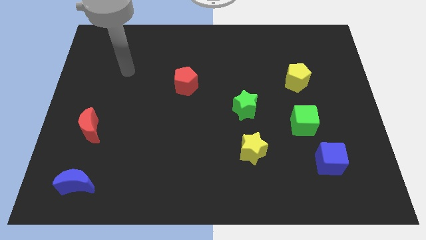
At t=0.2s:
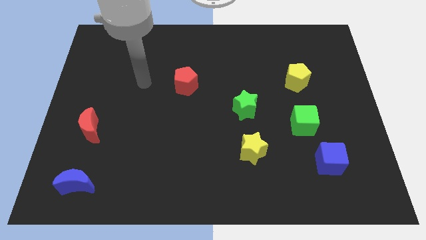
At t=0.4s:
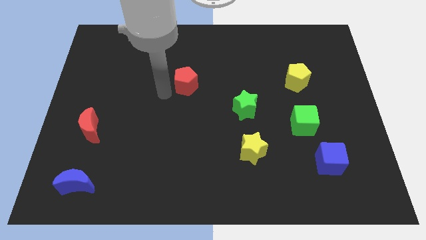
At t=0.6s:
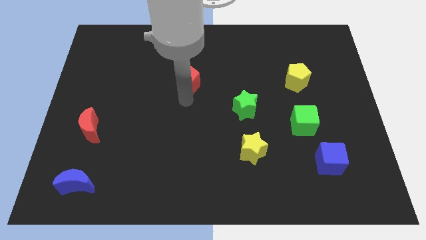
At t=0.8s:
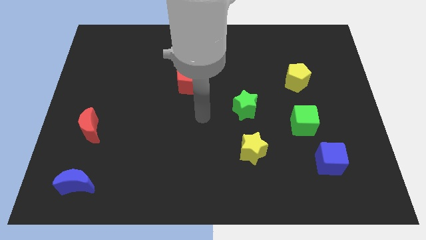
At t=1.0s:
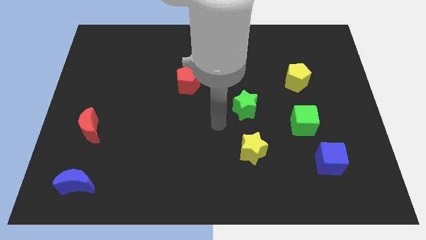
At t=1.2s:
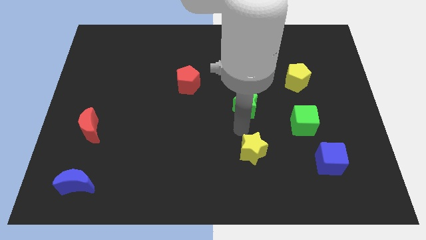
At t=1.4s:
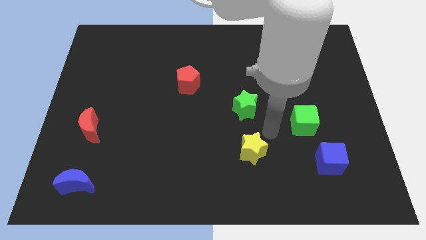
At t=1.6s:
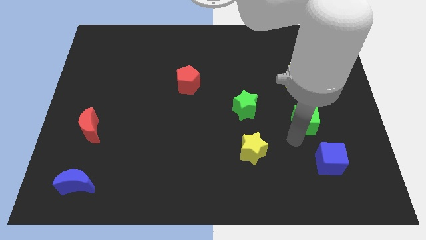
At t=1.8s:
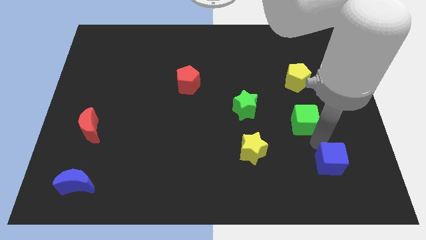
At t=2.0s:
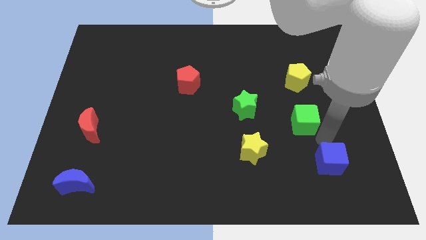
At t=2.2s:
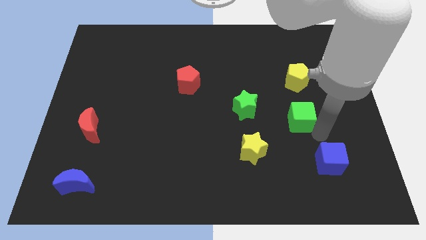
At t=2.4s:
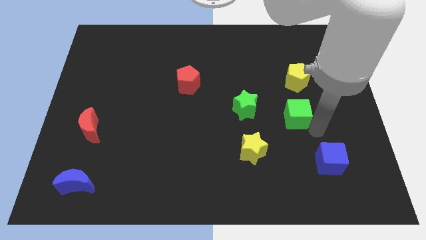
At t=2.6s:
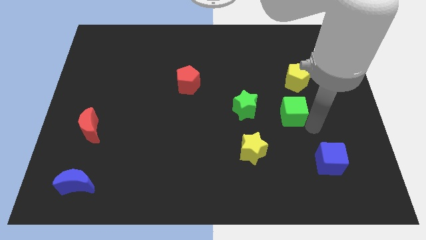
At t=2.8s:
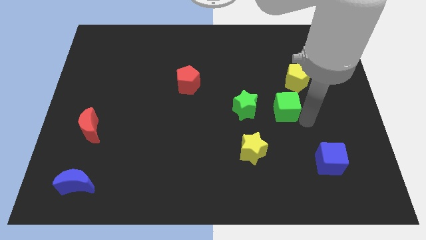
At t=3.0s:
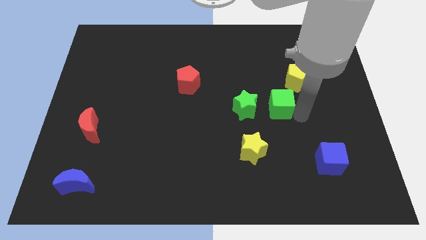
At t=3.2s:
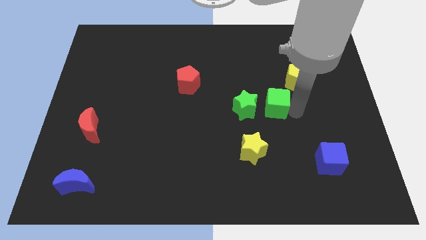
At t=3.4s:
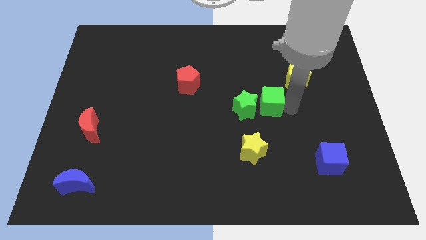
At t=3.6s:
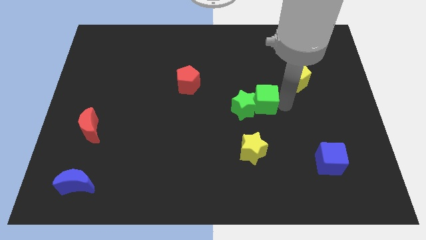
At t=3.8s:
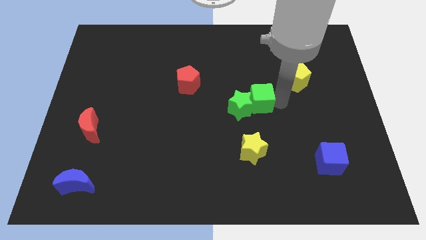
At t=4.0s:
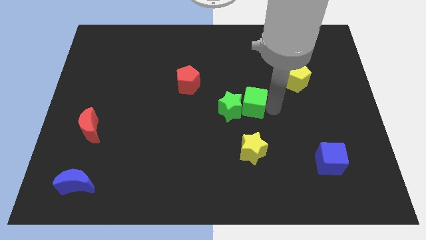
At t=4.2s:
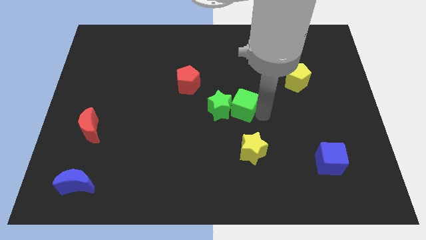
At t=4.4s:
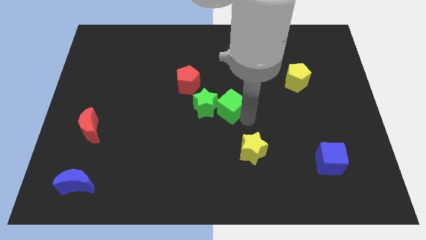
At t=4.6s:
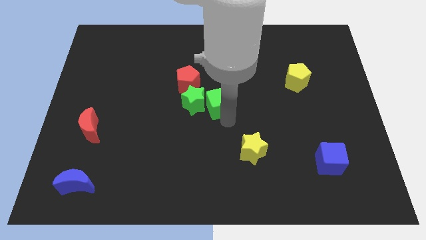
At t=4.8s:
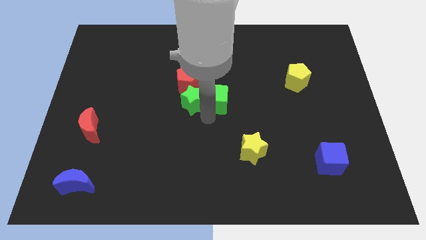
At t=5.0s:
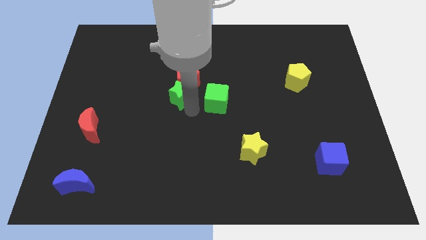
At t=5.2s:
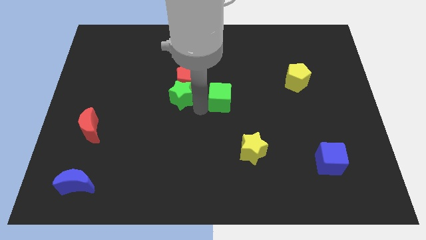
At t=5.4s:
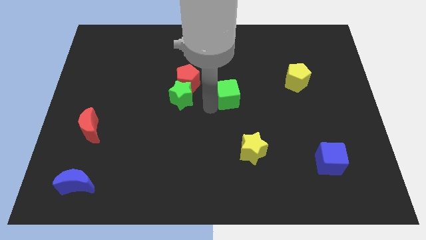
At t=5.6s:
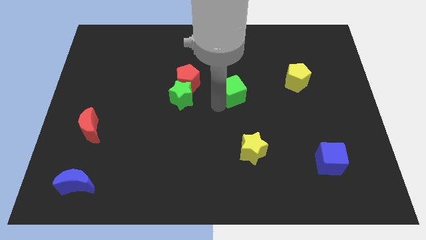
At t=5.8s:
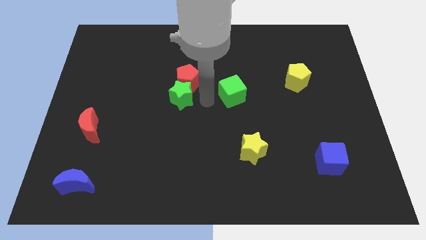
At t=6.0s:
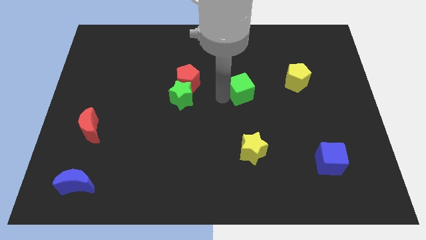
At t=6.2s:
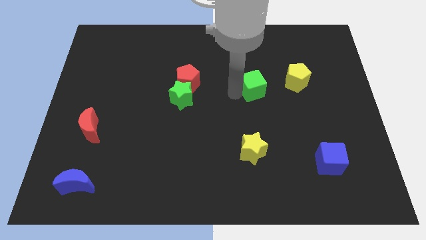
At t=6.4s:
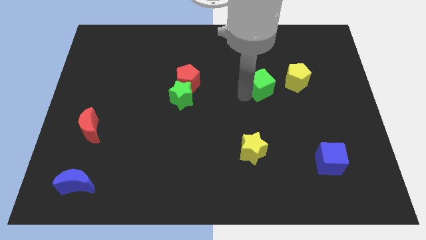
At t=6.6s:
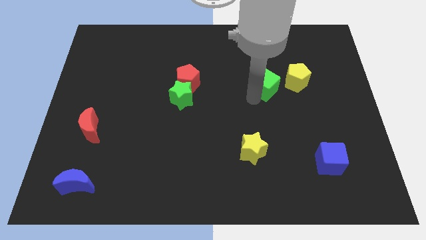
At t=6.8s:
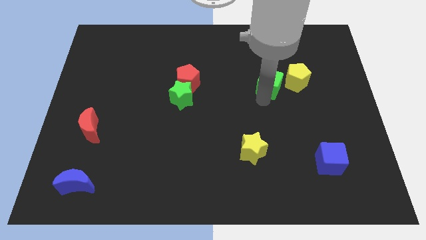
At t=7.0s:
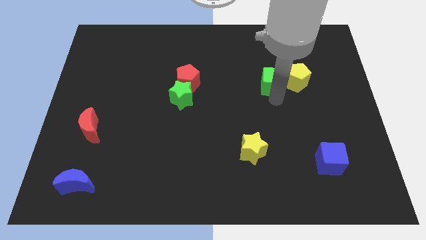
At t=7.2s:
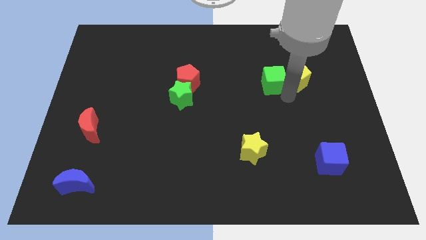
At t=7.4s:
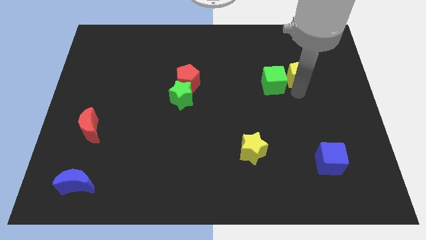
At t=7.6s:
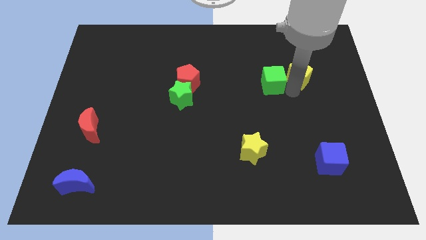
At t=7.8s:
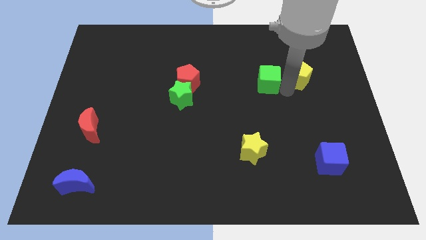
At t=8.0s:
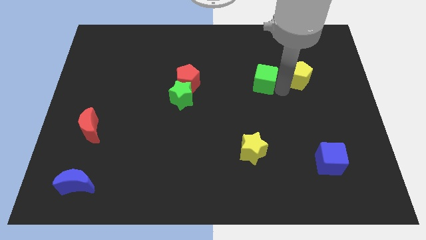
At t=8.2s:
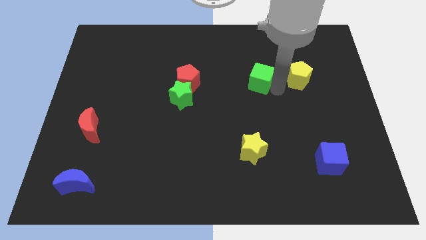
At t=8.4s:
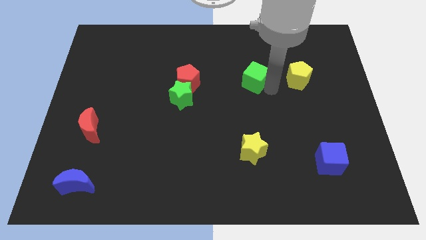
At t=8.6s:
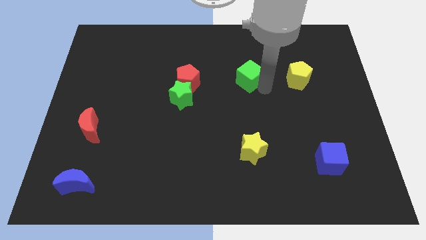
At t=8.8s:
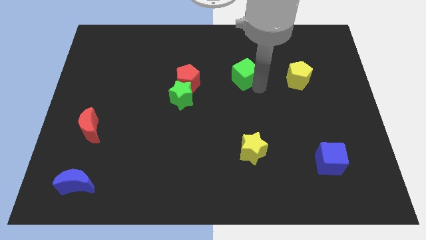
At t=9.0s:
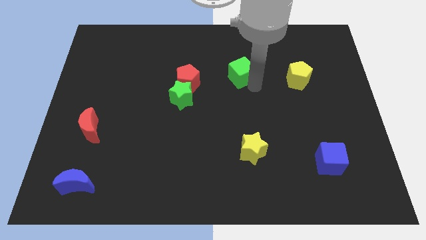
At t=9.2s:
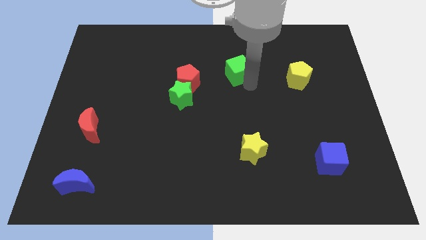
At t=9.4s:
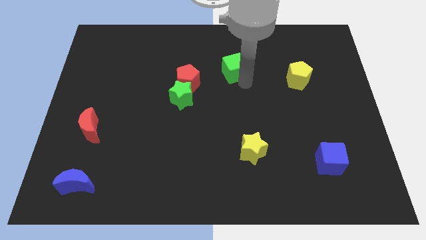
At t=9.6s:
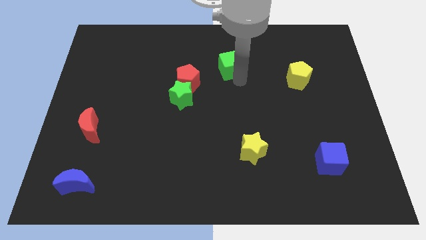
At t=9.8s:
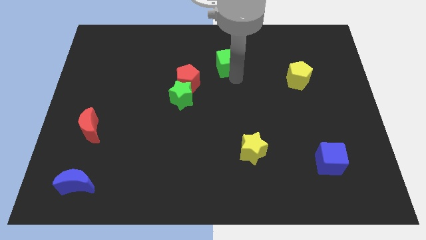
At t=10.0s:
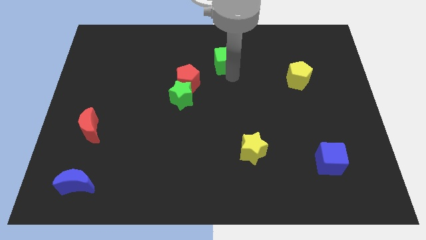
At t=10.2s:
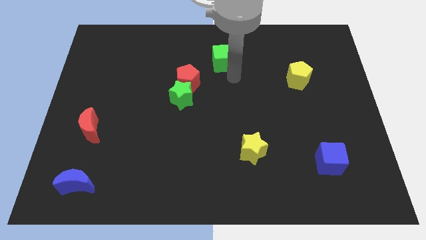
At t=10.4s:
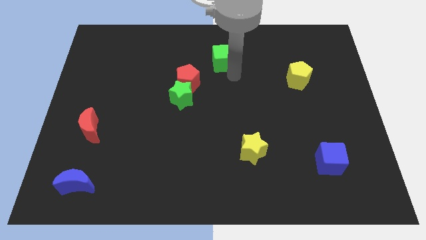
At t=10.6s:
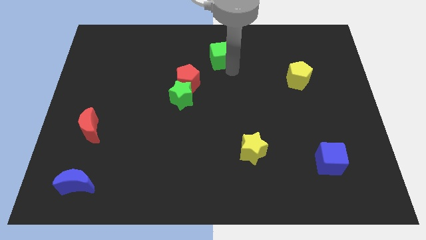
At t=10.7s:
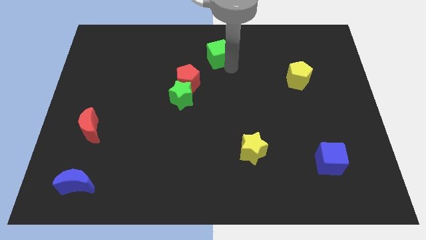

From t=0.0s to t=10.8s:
move the green cube to the towards your base

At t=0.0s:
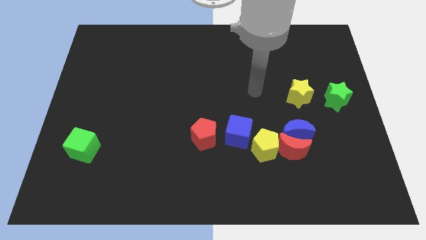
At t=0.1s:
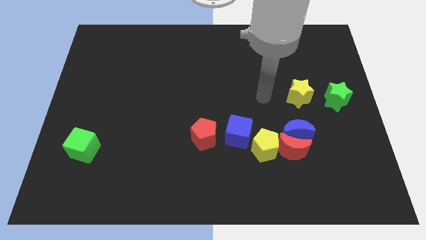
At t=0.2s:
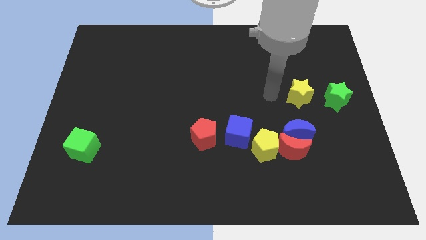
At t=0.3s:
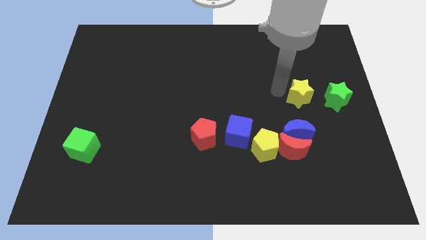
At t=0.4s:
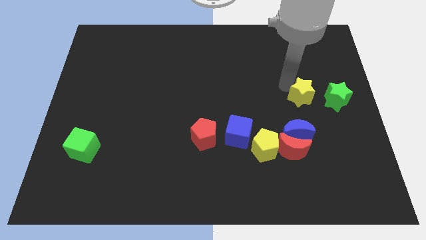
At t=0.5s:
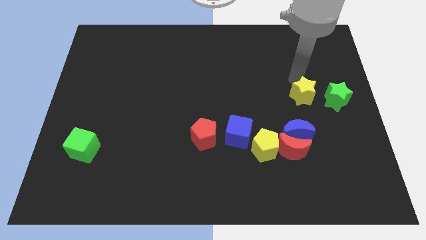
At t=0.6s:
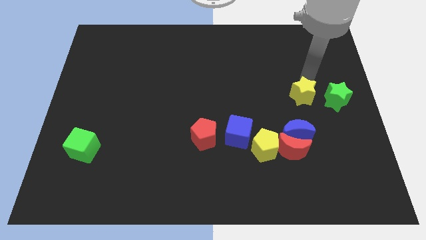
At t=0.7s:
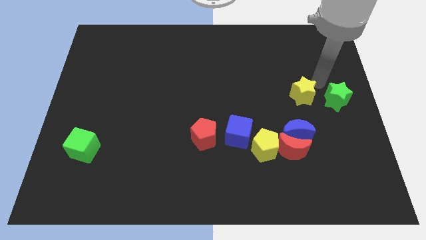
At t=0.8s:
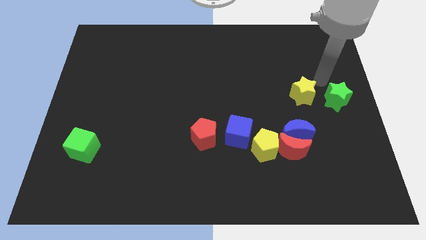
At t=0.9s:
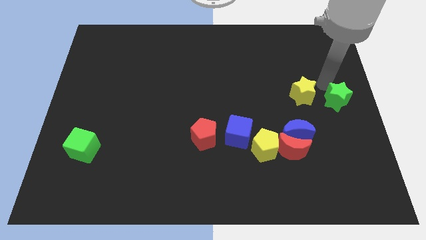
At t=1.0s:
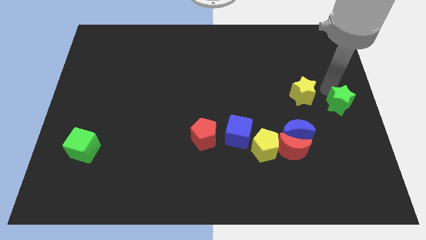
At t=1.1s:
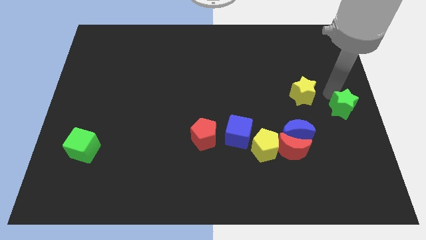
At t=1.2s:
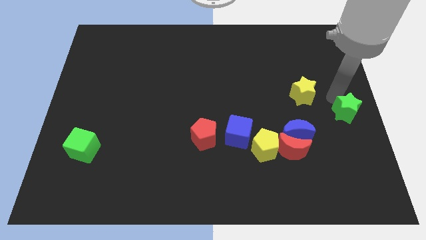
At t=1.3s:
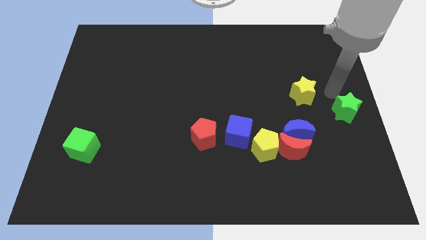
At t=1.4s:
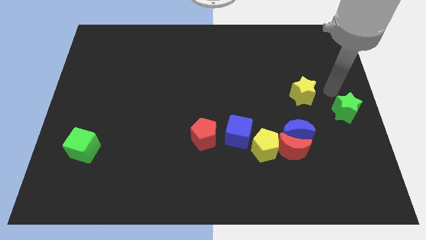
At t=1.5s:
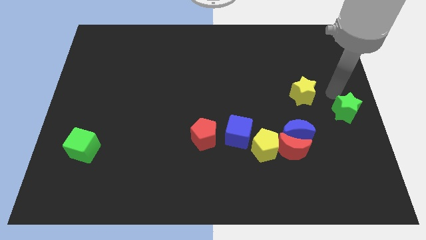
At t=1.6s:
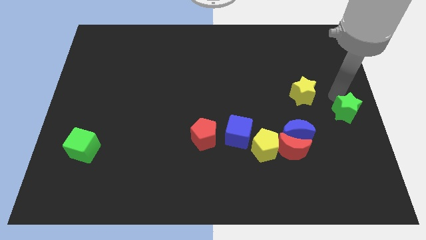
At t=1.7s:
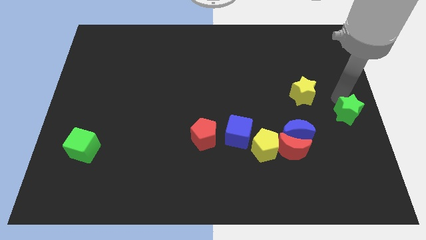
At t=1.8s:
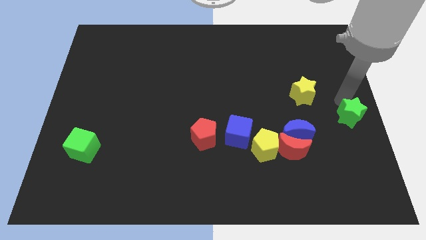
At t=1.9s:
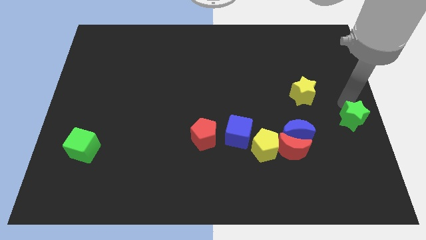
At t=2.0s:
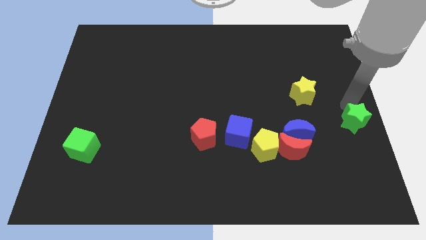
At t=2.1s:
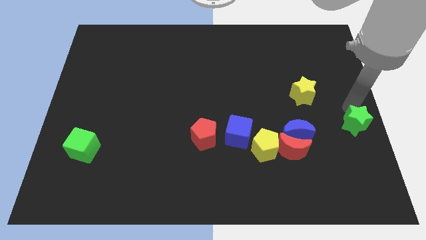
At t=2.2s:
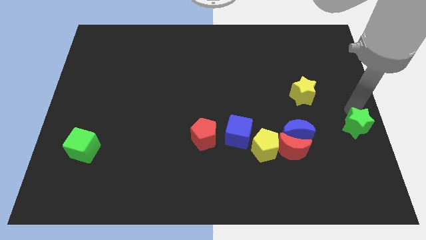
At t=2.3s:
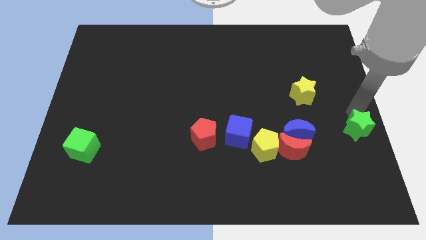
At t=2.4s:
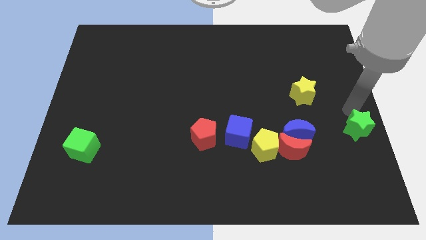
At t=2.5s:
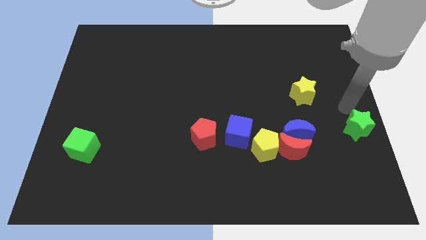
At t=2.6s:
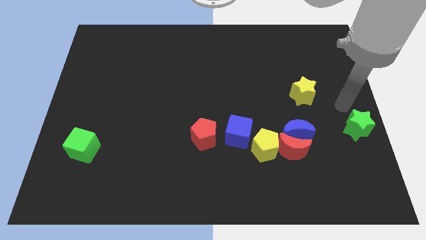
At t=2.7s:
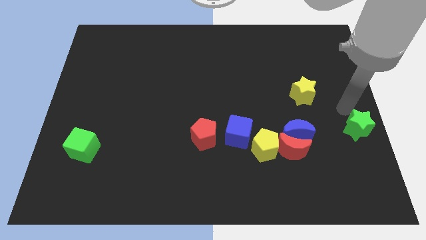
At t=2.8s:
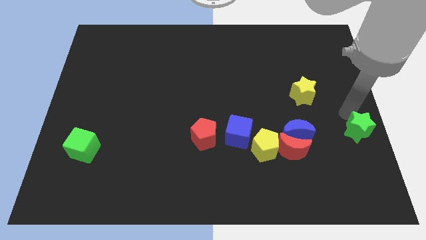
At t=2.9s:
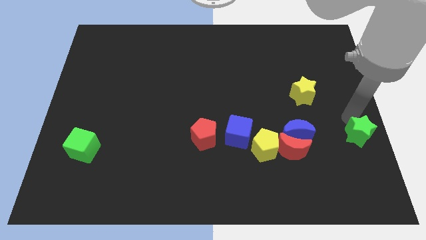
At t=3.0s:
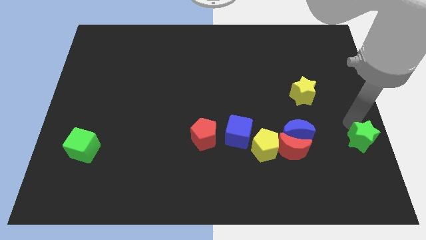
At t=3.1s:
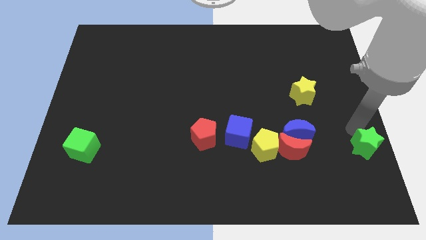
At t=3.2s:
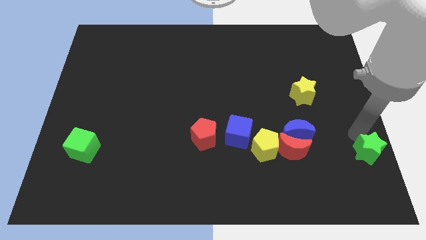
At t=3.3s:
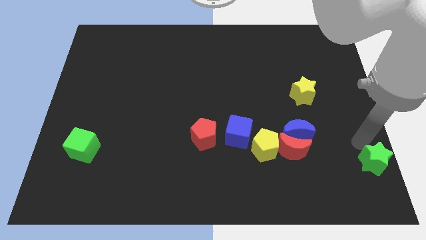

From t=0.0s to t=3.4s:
put the green star to the lower right corner
